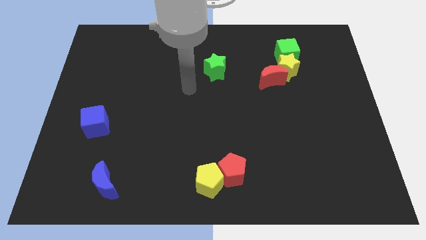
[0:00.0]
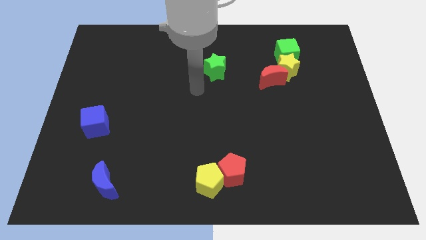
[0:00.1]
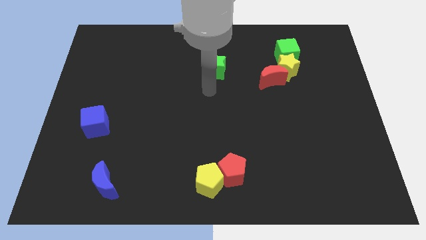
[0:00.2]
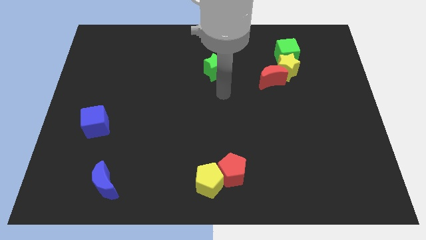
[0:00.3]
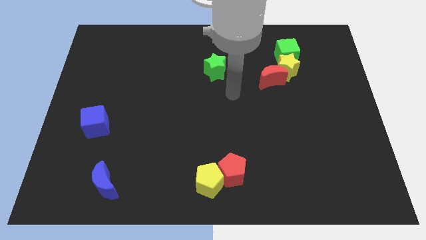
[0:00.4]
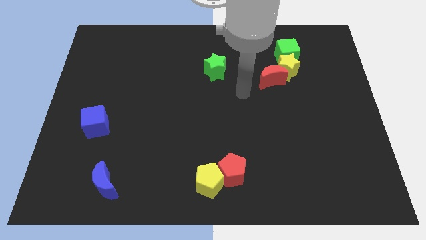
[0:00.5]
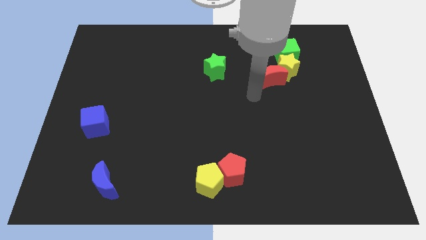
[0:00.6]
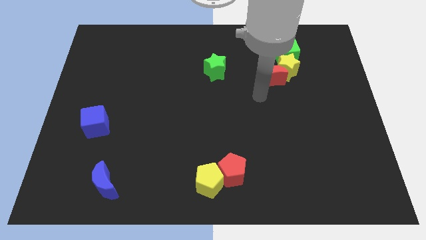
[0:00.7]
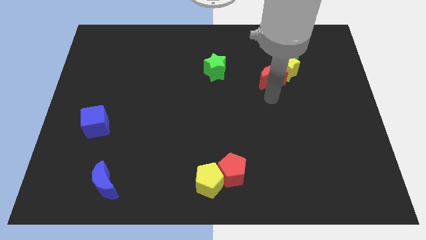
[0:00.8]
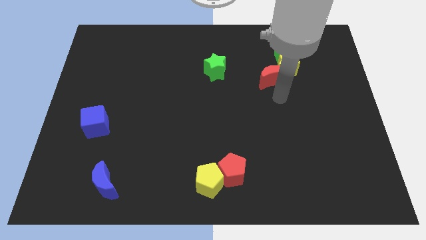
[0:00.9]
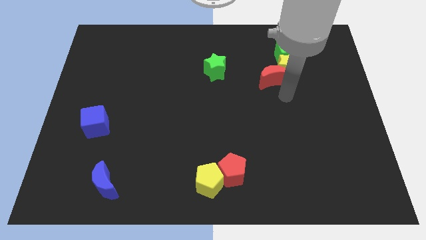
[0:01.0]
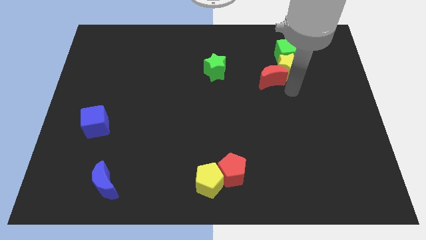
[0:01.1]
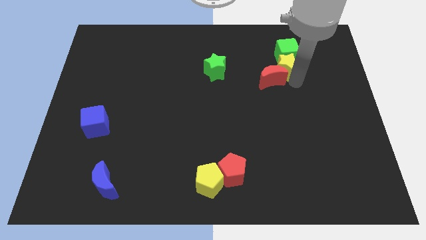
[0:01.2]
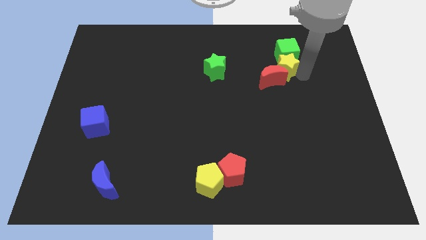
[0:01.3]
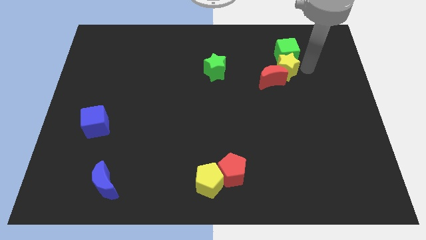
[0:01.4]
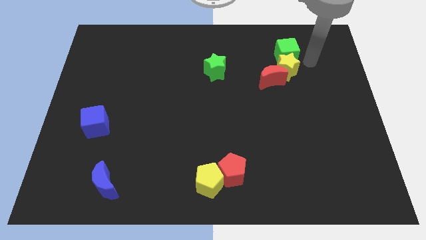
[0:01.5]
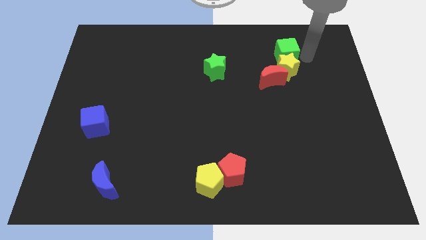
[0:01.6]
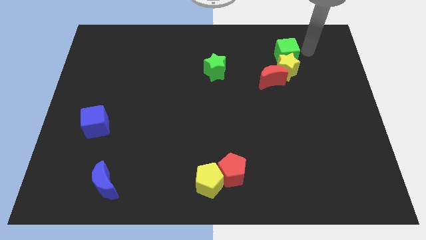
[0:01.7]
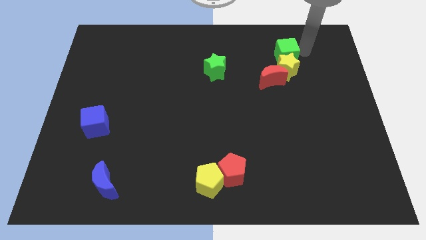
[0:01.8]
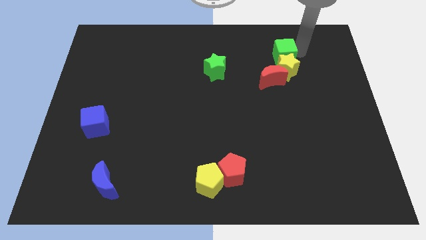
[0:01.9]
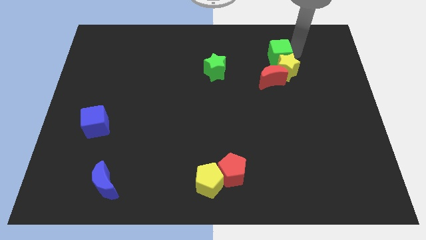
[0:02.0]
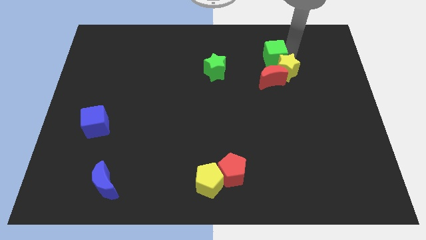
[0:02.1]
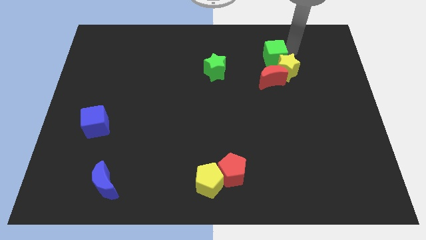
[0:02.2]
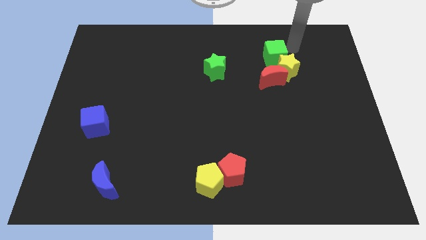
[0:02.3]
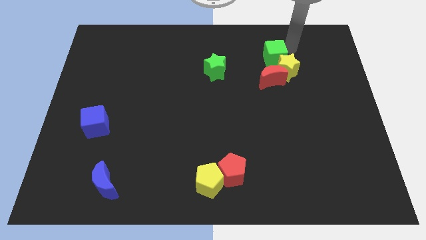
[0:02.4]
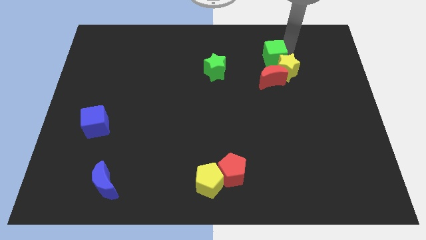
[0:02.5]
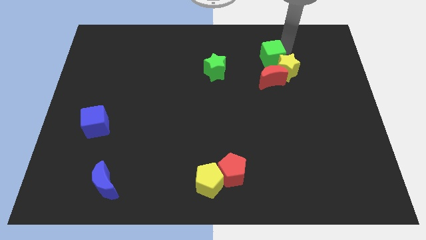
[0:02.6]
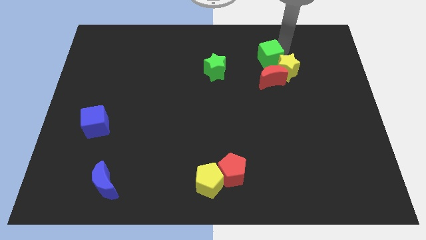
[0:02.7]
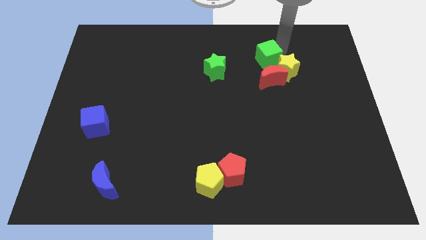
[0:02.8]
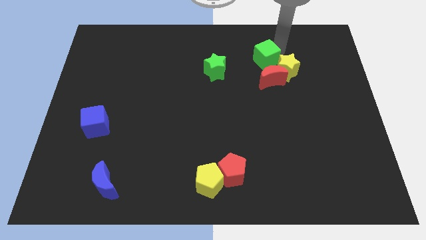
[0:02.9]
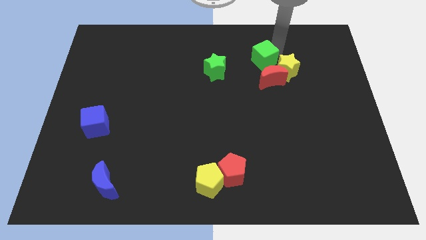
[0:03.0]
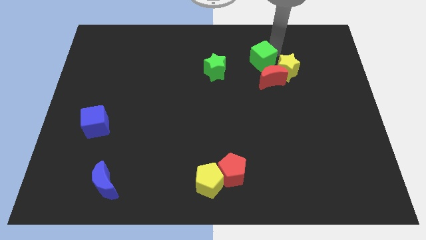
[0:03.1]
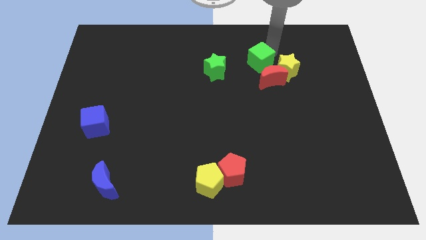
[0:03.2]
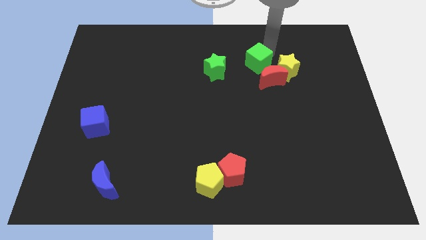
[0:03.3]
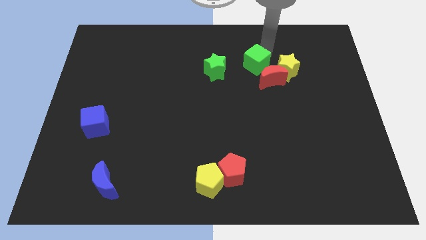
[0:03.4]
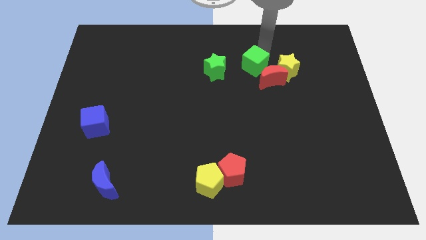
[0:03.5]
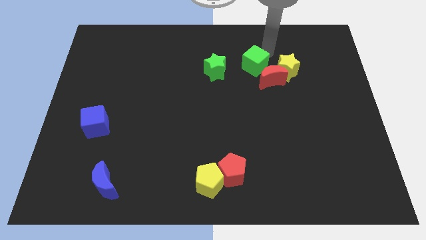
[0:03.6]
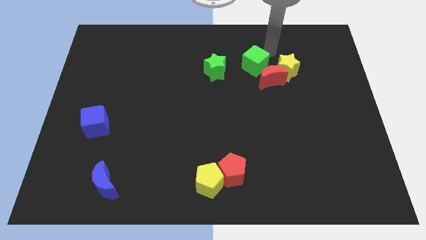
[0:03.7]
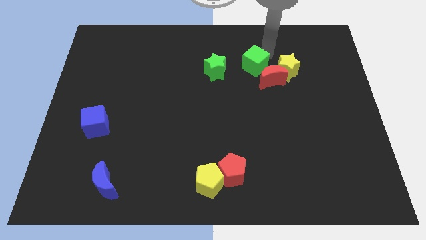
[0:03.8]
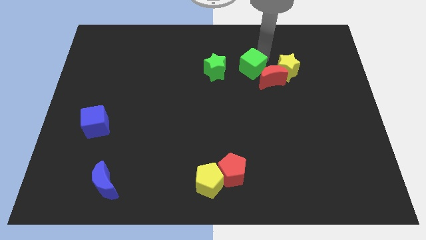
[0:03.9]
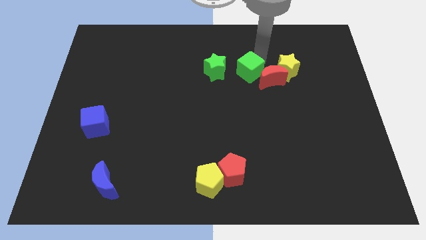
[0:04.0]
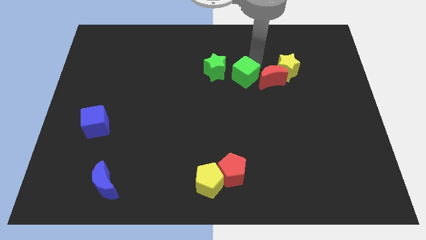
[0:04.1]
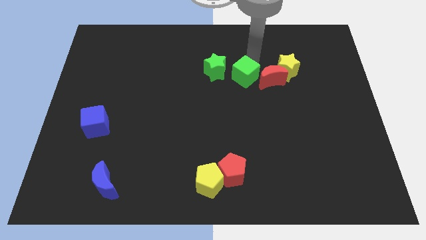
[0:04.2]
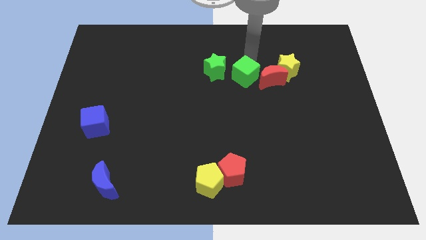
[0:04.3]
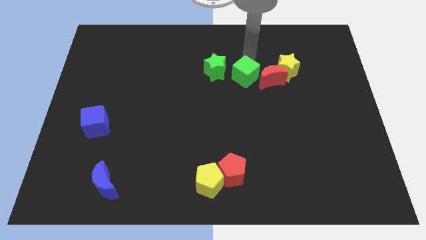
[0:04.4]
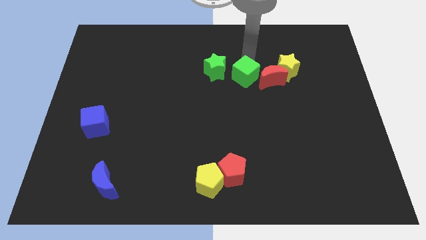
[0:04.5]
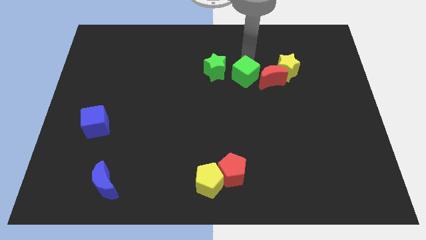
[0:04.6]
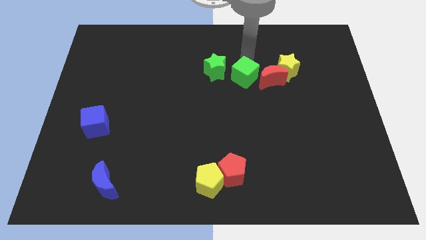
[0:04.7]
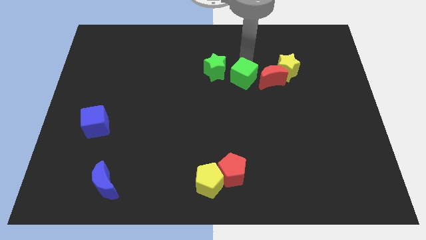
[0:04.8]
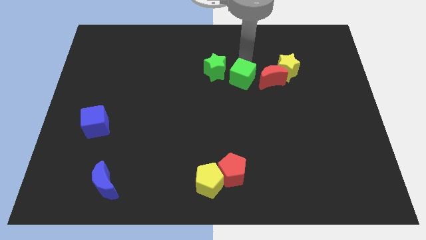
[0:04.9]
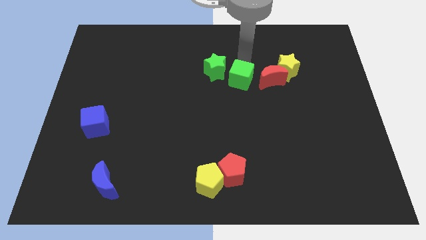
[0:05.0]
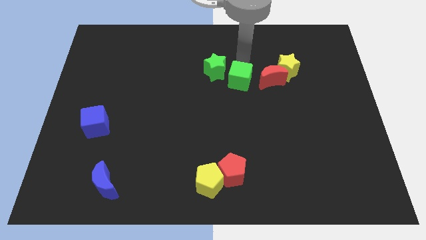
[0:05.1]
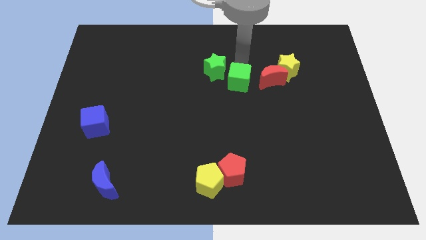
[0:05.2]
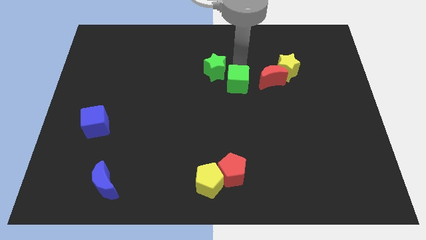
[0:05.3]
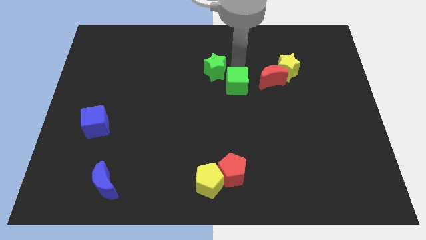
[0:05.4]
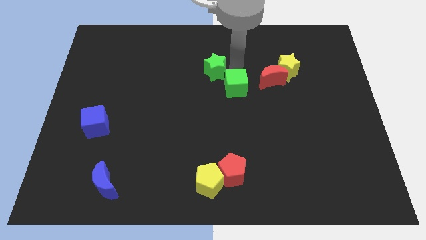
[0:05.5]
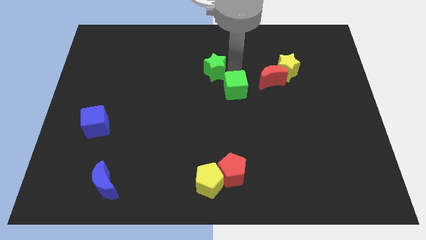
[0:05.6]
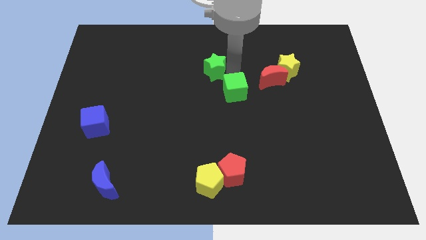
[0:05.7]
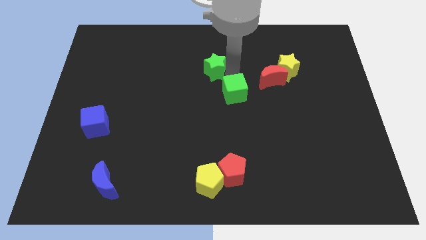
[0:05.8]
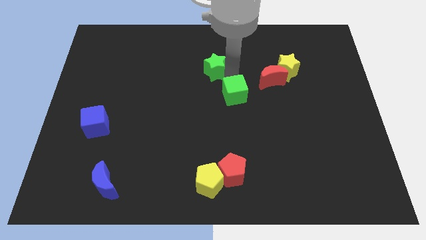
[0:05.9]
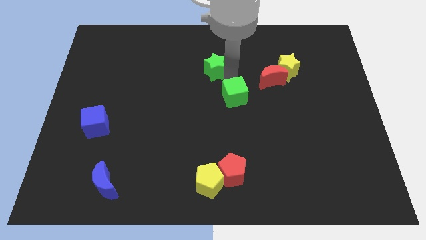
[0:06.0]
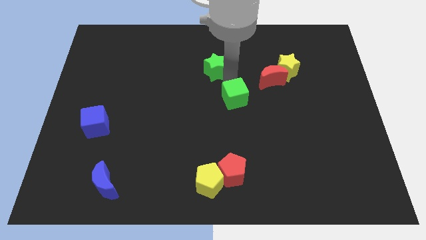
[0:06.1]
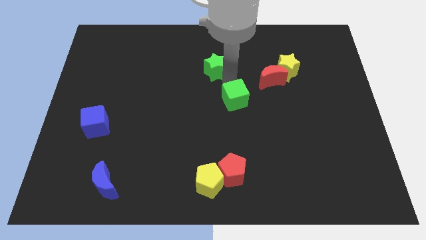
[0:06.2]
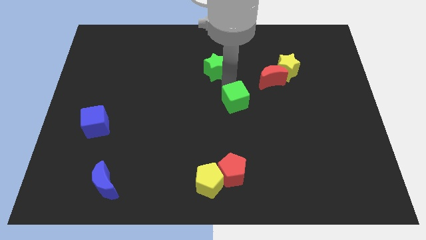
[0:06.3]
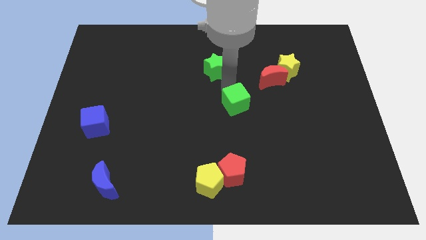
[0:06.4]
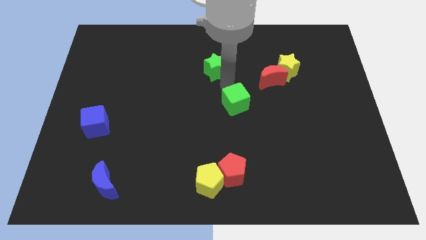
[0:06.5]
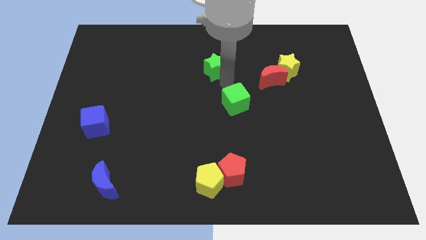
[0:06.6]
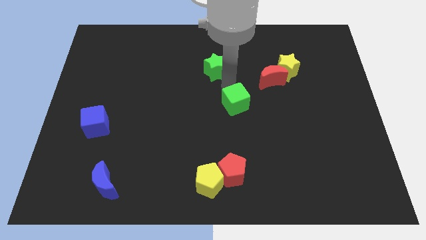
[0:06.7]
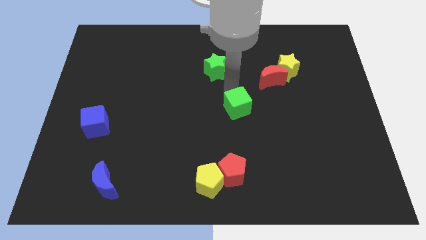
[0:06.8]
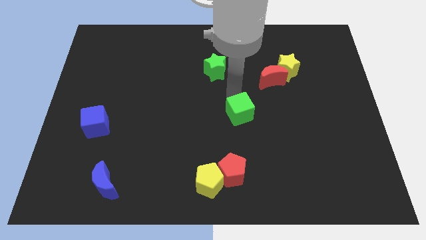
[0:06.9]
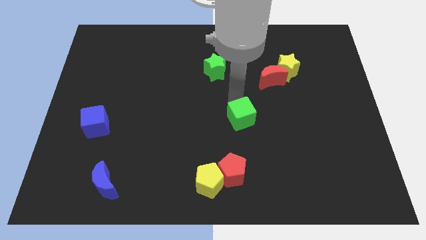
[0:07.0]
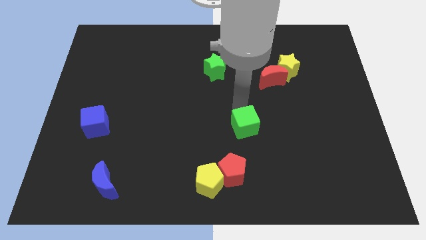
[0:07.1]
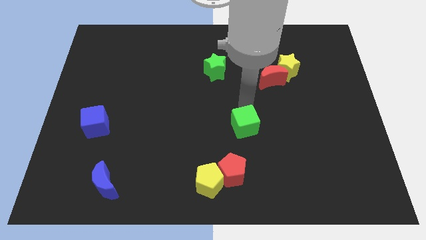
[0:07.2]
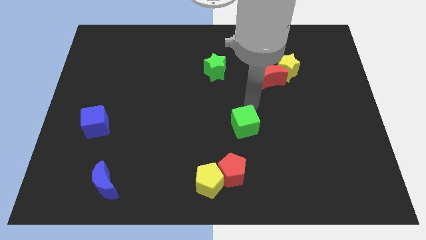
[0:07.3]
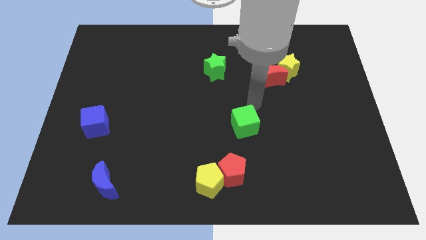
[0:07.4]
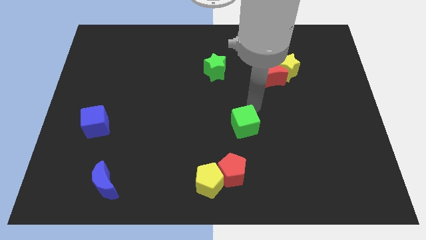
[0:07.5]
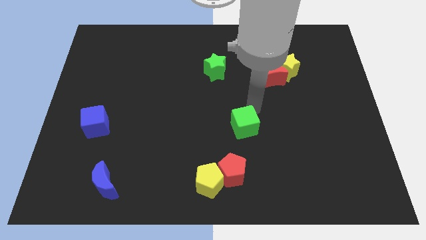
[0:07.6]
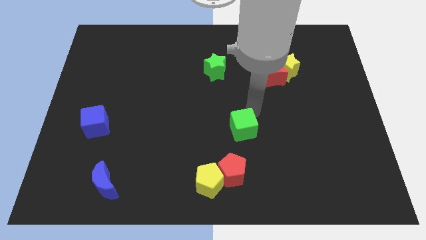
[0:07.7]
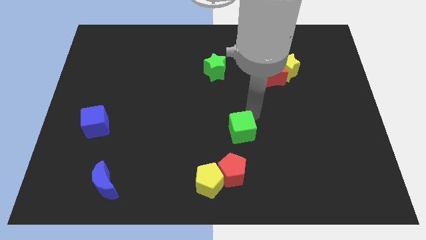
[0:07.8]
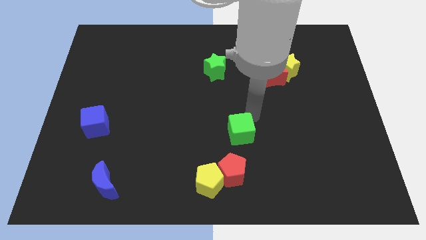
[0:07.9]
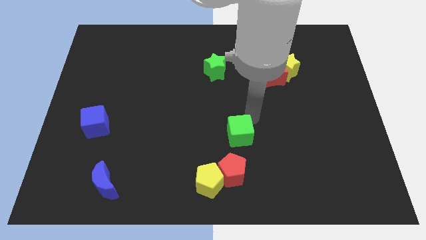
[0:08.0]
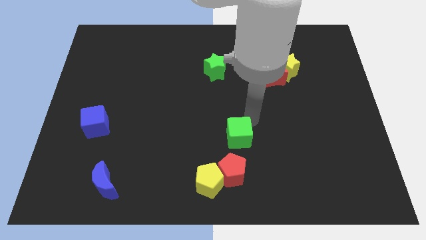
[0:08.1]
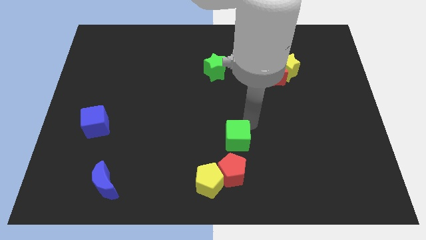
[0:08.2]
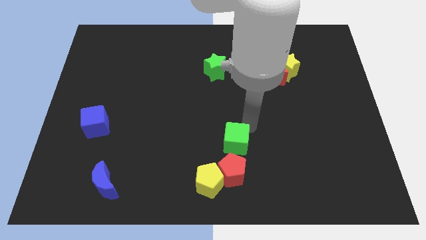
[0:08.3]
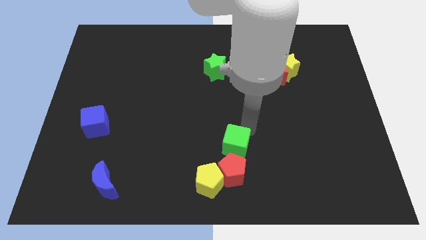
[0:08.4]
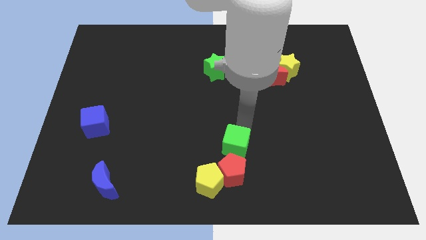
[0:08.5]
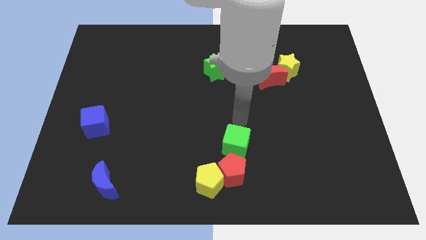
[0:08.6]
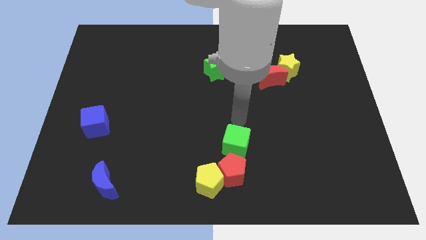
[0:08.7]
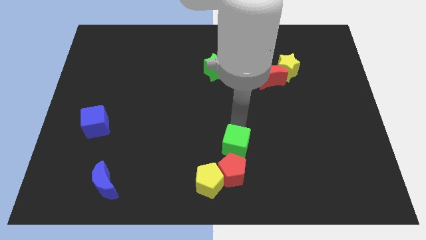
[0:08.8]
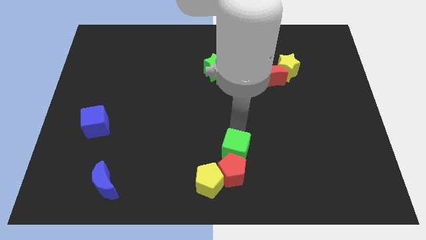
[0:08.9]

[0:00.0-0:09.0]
slide the green cube to the red pentagon
